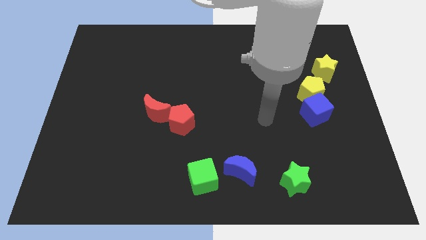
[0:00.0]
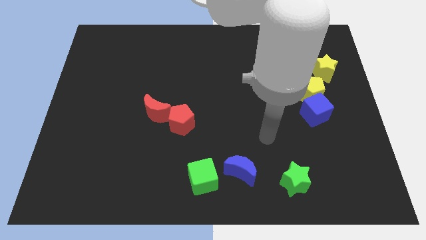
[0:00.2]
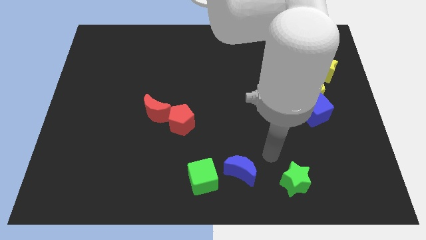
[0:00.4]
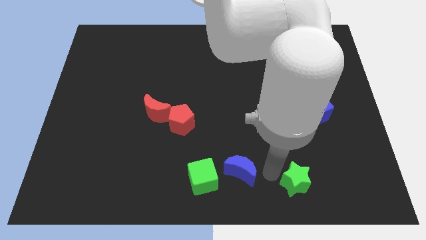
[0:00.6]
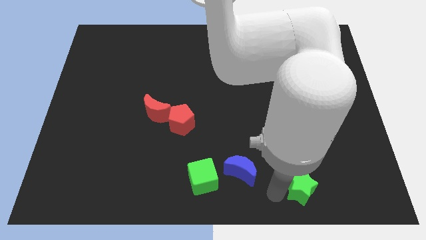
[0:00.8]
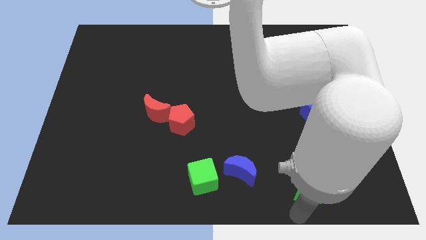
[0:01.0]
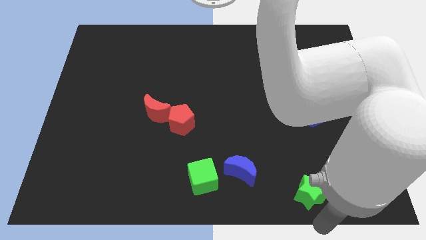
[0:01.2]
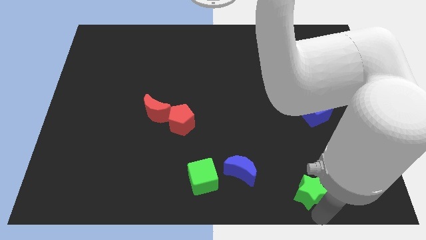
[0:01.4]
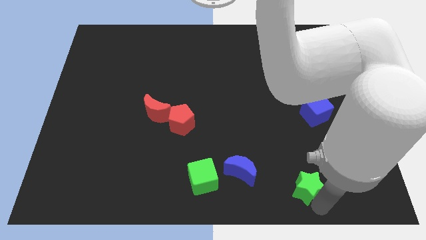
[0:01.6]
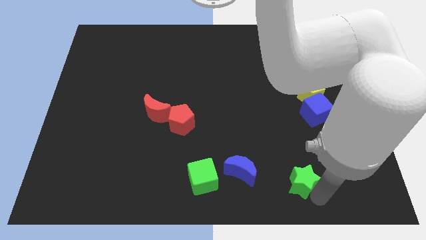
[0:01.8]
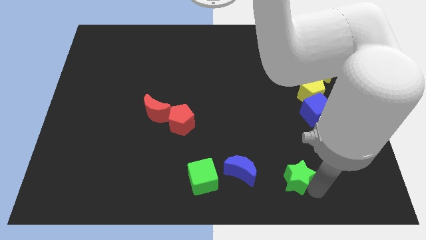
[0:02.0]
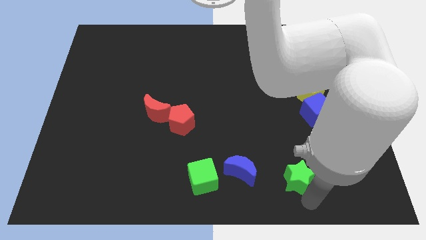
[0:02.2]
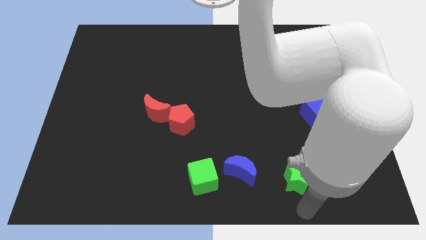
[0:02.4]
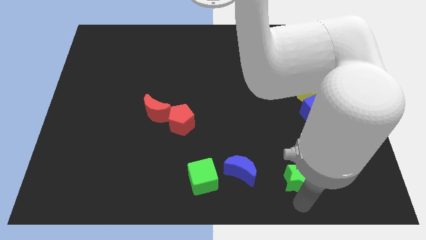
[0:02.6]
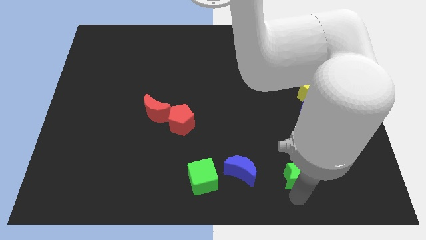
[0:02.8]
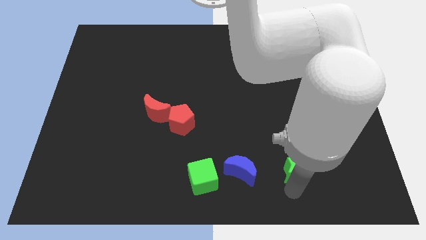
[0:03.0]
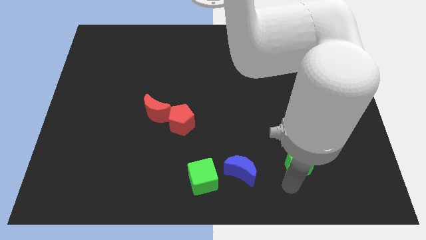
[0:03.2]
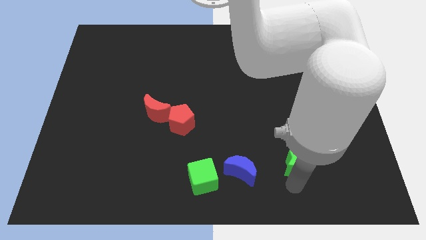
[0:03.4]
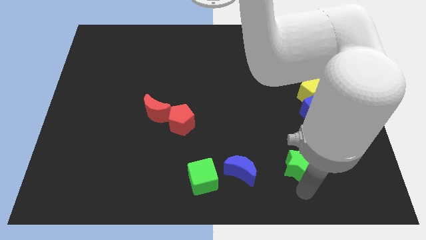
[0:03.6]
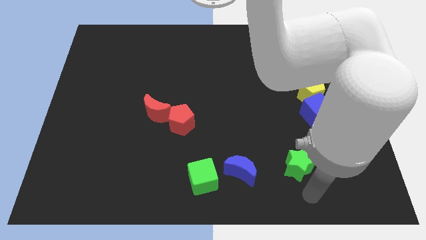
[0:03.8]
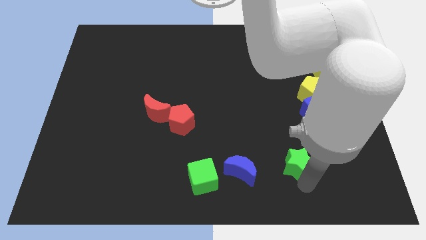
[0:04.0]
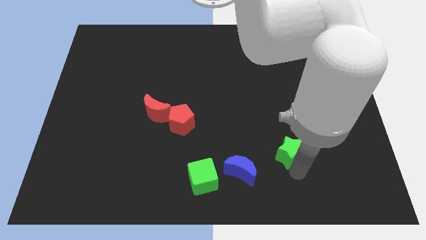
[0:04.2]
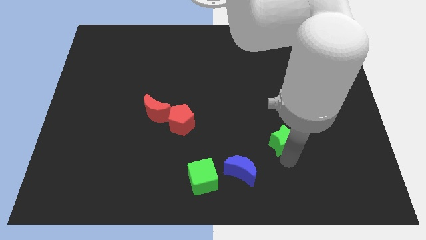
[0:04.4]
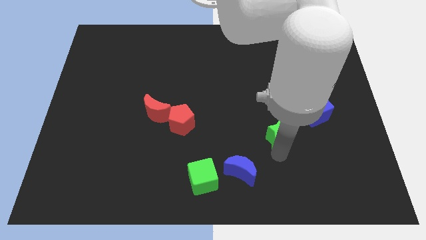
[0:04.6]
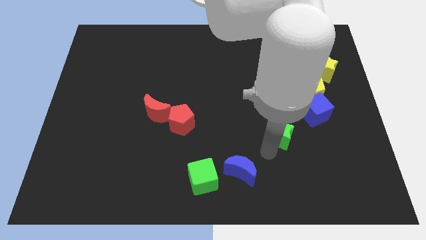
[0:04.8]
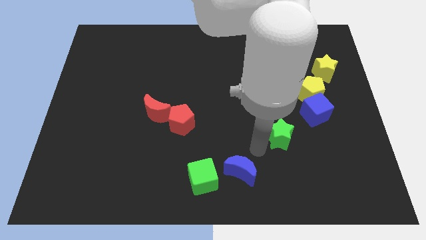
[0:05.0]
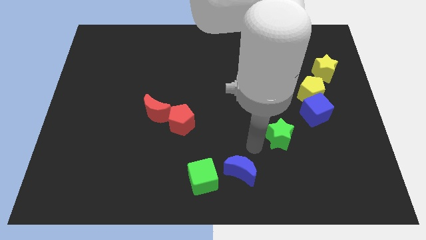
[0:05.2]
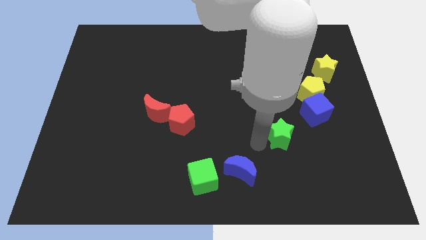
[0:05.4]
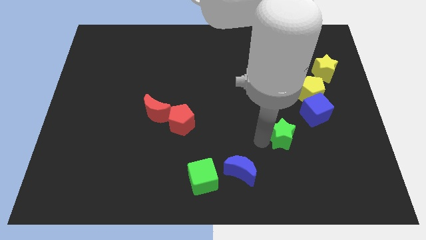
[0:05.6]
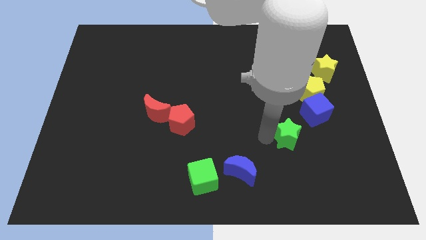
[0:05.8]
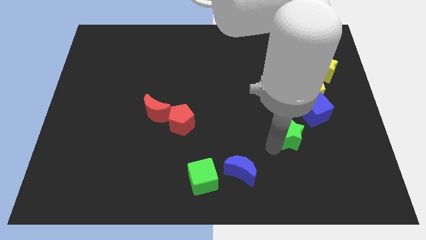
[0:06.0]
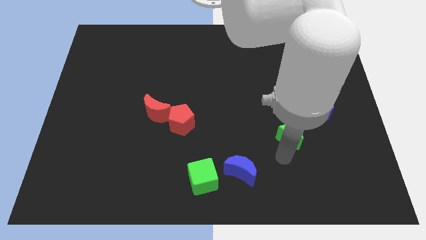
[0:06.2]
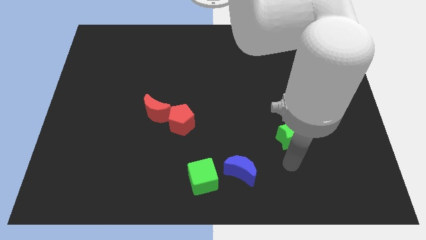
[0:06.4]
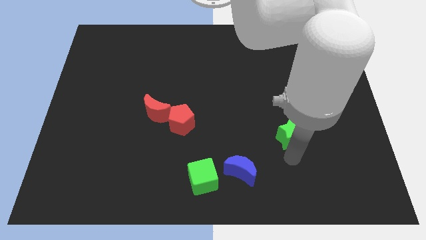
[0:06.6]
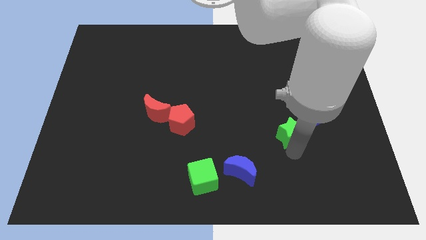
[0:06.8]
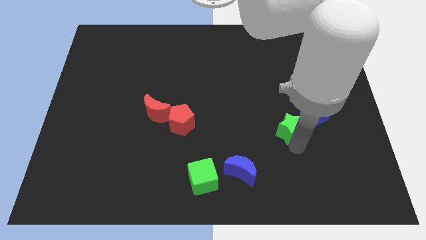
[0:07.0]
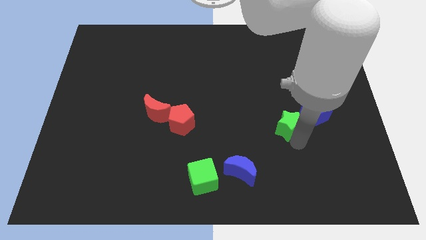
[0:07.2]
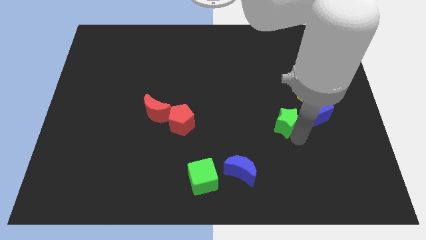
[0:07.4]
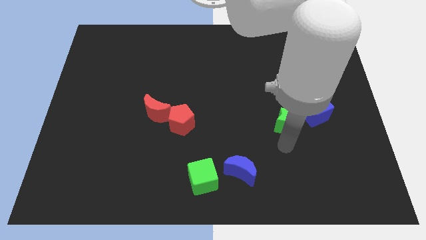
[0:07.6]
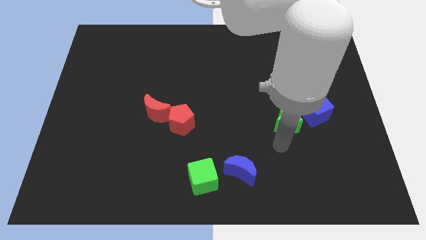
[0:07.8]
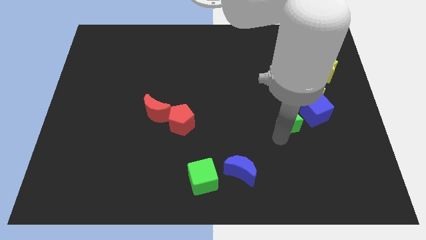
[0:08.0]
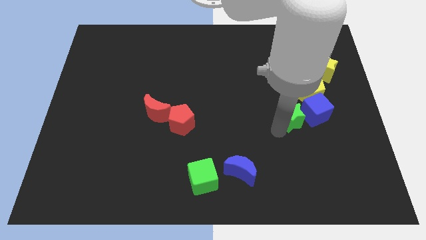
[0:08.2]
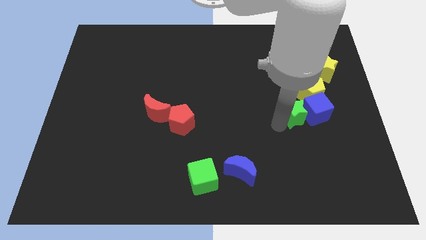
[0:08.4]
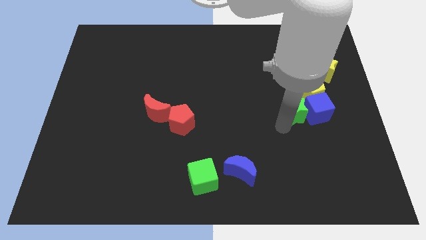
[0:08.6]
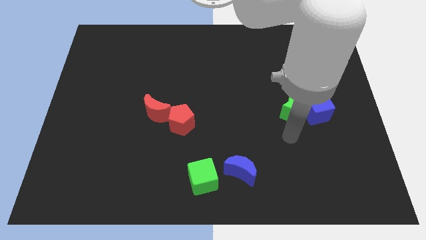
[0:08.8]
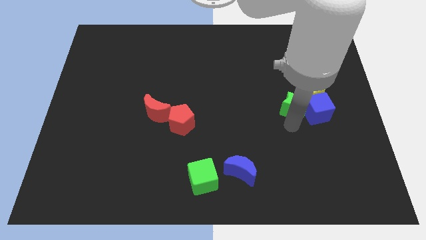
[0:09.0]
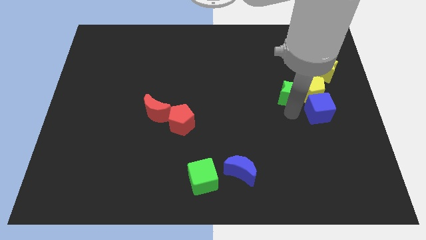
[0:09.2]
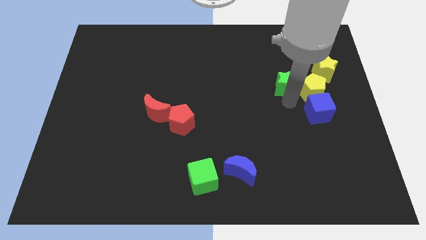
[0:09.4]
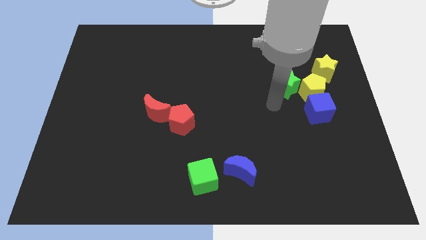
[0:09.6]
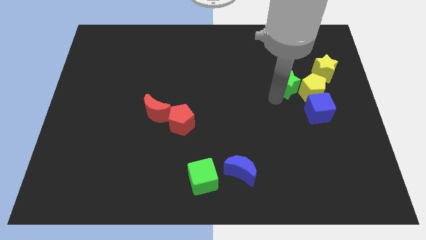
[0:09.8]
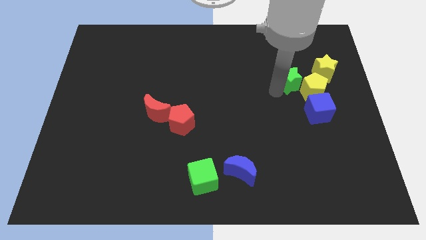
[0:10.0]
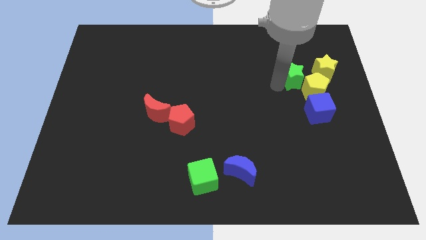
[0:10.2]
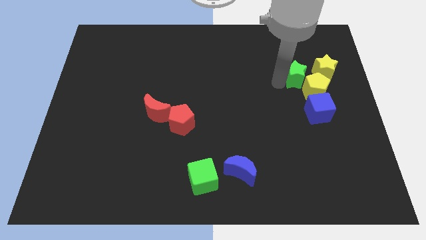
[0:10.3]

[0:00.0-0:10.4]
push the green star above the yellow pentagon

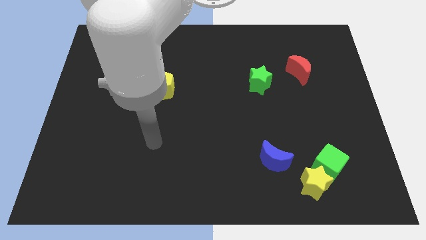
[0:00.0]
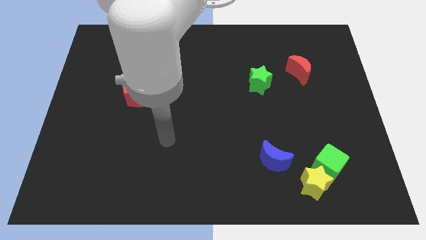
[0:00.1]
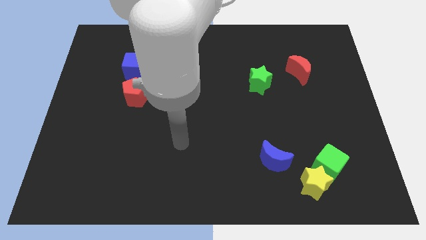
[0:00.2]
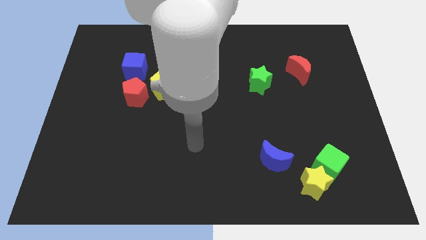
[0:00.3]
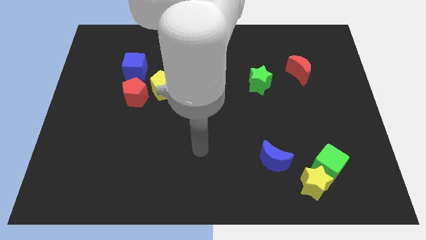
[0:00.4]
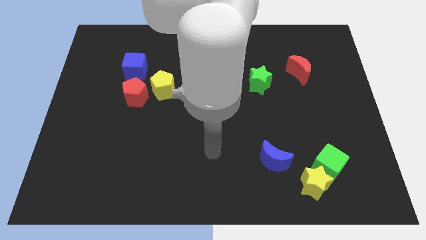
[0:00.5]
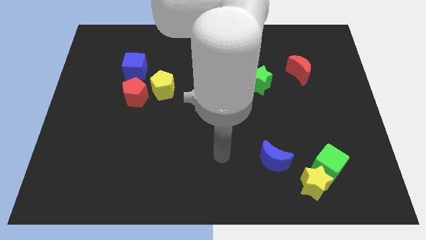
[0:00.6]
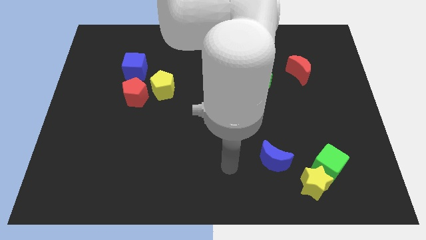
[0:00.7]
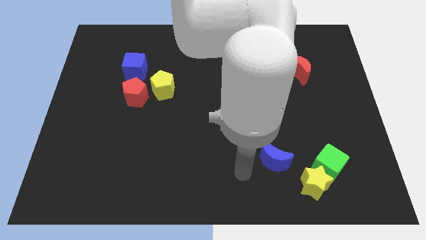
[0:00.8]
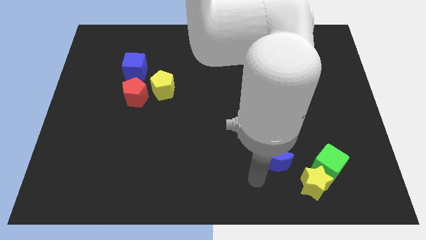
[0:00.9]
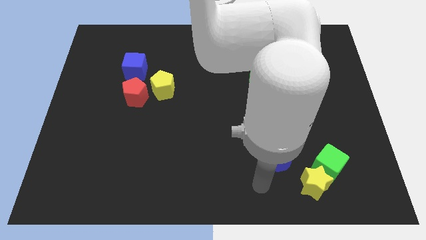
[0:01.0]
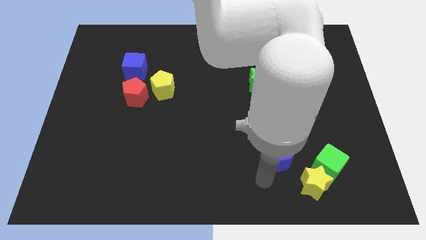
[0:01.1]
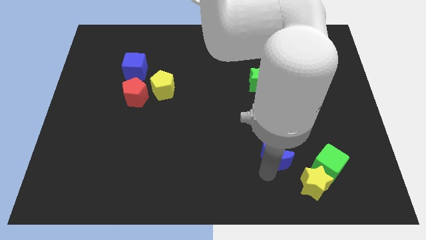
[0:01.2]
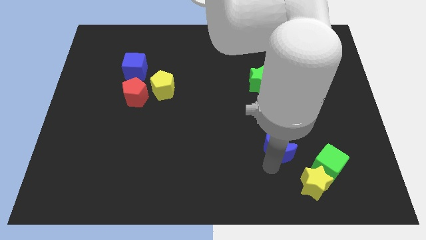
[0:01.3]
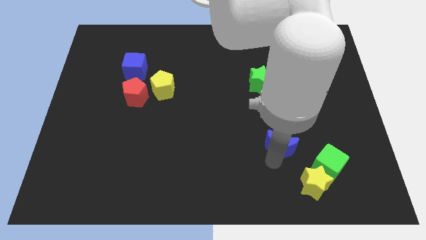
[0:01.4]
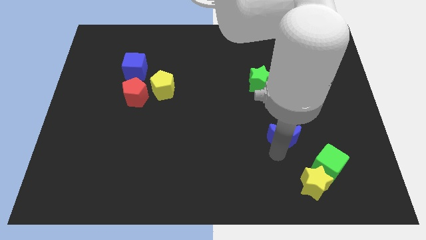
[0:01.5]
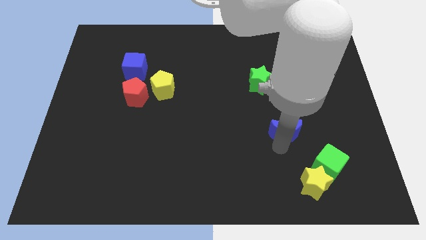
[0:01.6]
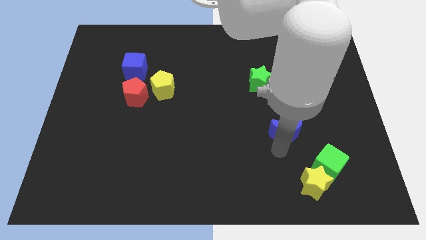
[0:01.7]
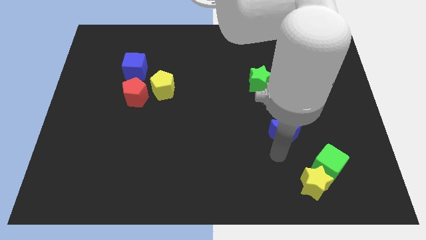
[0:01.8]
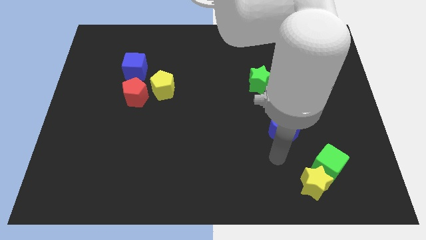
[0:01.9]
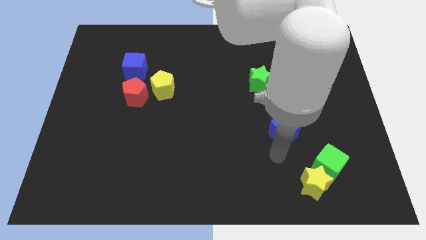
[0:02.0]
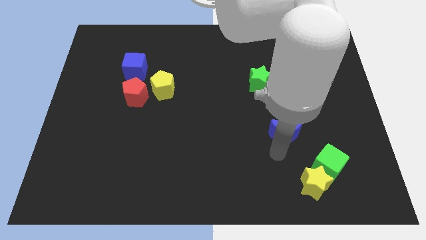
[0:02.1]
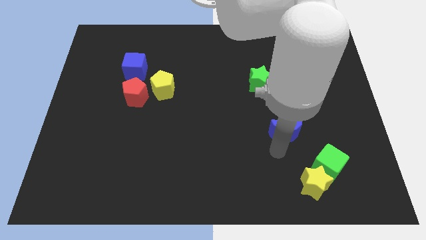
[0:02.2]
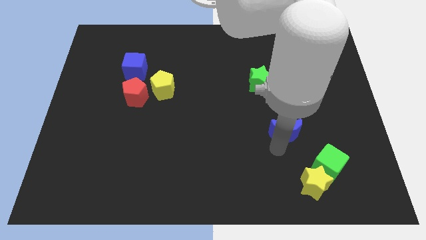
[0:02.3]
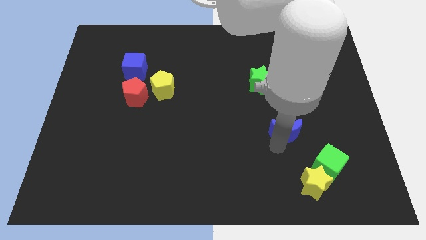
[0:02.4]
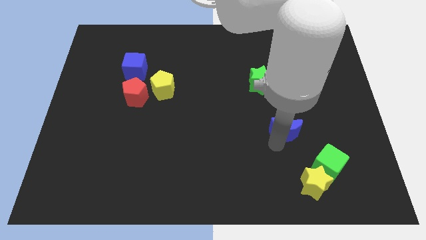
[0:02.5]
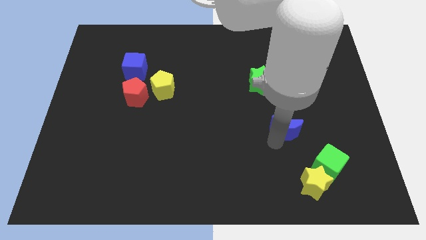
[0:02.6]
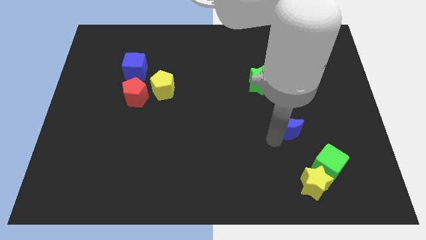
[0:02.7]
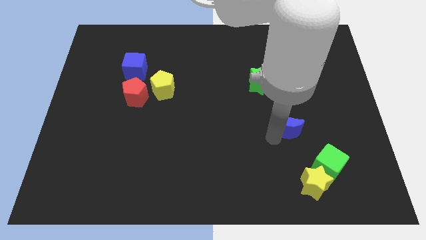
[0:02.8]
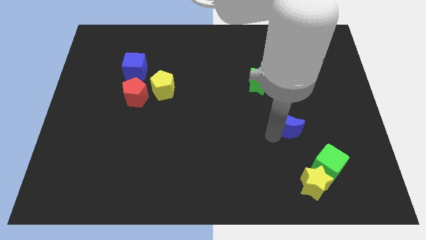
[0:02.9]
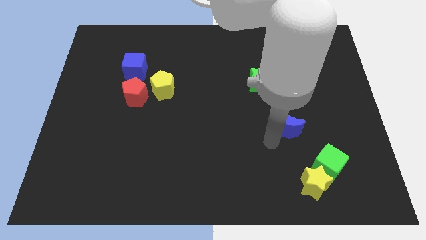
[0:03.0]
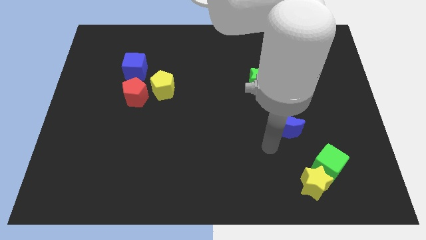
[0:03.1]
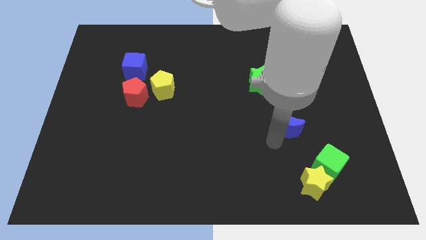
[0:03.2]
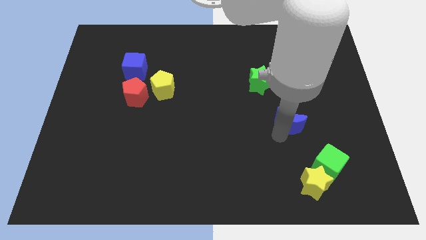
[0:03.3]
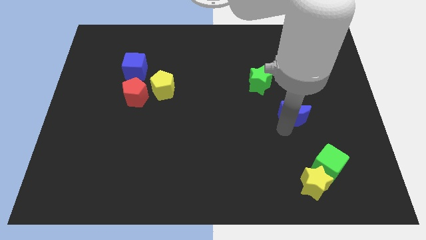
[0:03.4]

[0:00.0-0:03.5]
move the blue moon below the red moon
